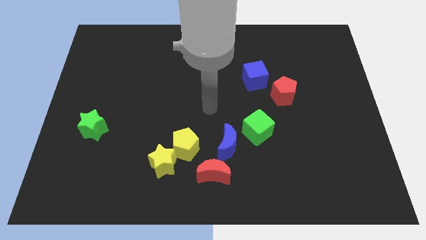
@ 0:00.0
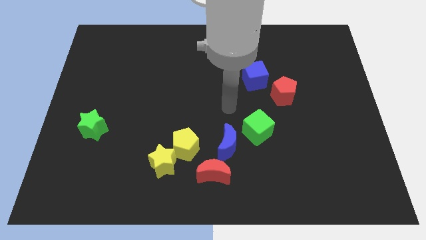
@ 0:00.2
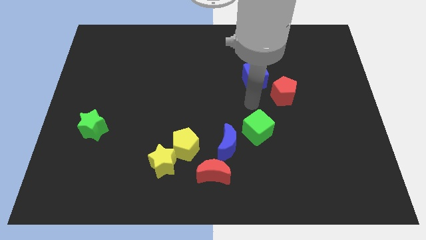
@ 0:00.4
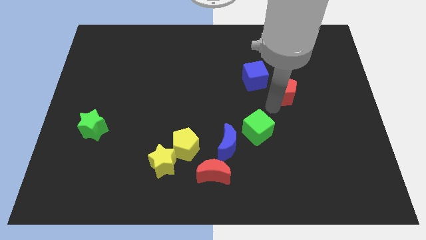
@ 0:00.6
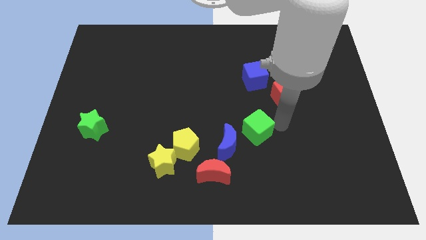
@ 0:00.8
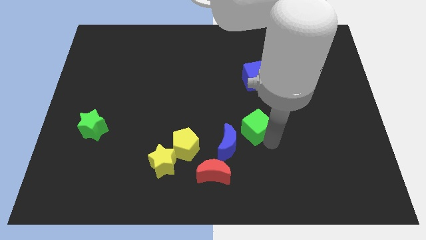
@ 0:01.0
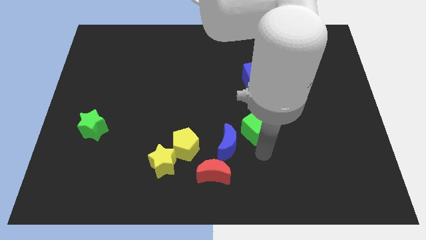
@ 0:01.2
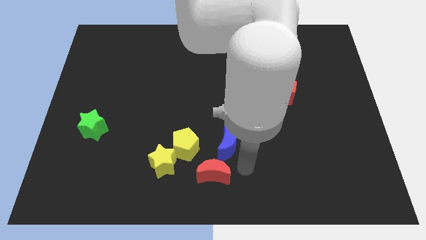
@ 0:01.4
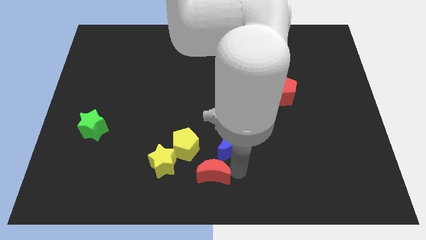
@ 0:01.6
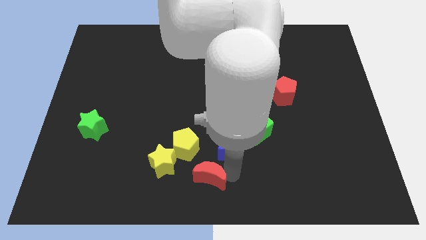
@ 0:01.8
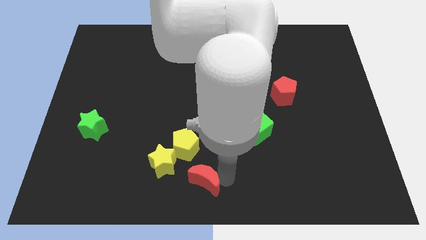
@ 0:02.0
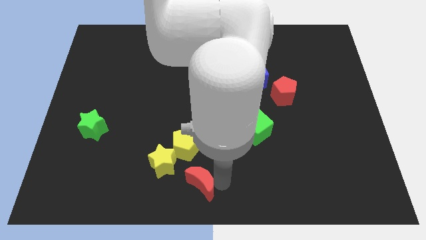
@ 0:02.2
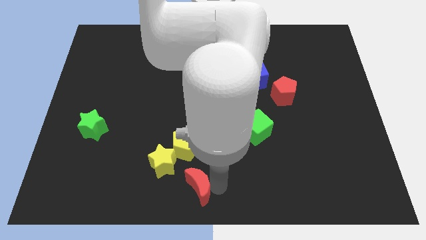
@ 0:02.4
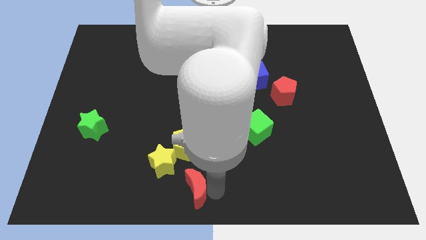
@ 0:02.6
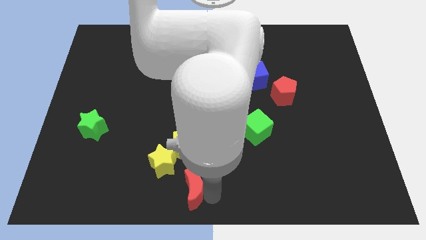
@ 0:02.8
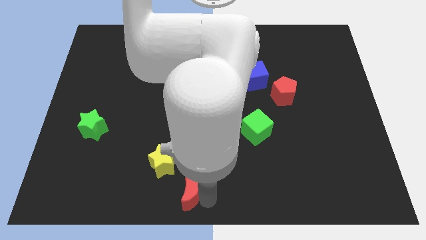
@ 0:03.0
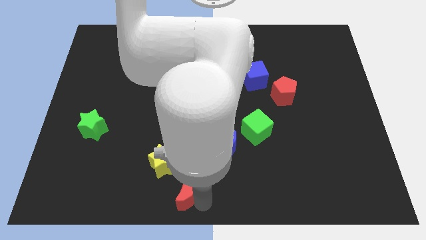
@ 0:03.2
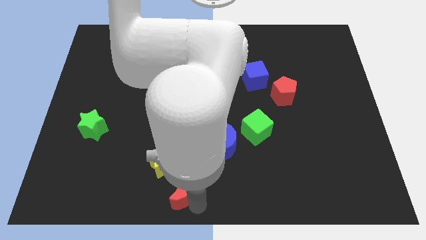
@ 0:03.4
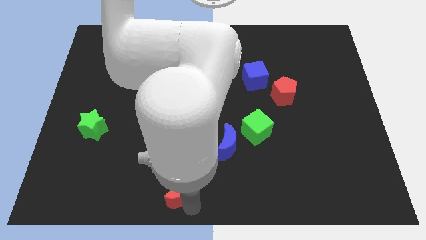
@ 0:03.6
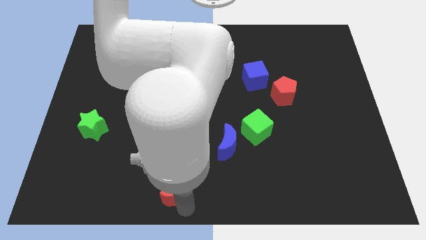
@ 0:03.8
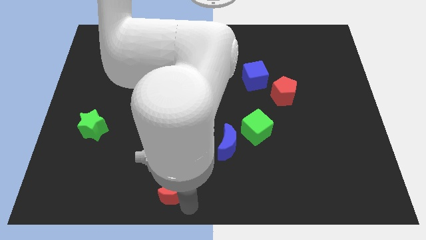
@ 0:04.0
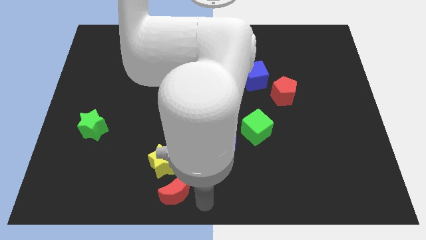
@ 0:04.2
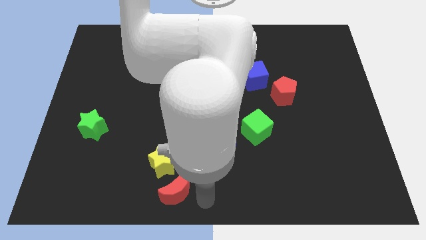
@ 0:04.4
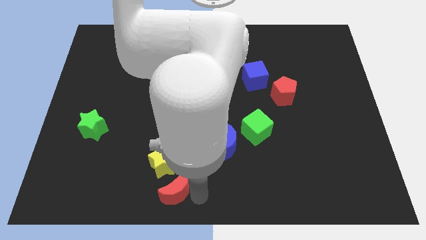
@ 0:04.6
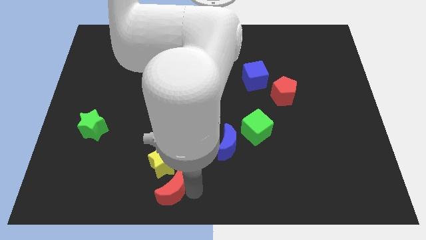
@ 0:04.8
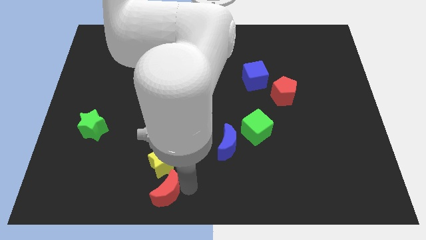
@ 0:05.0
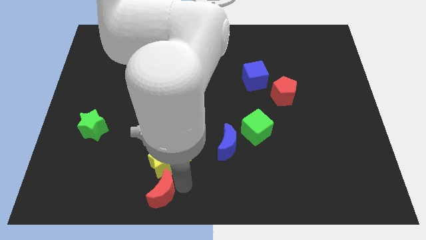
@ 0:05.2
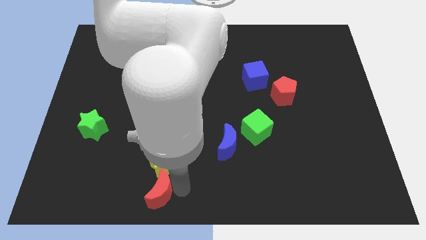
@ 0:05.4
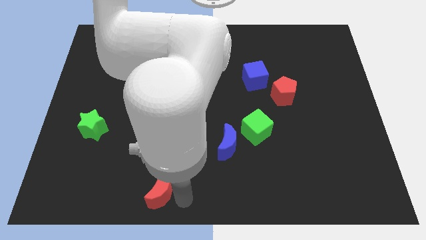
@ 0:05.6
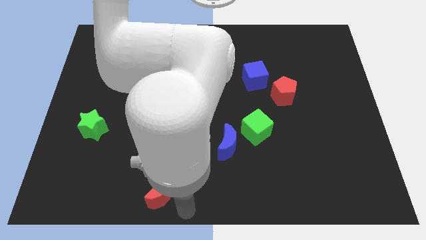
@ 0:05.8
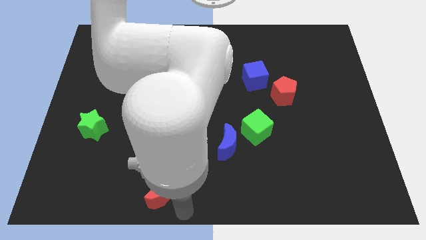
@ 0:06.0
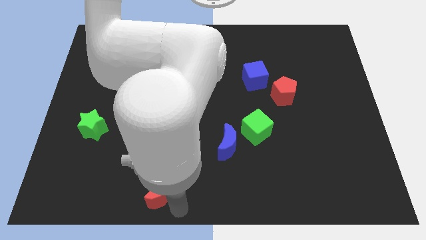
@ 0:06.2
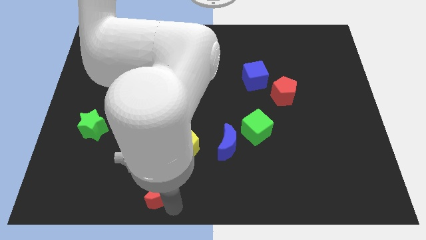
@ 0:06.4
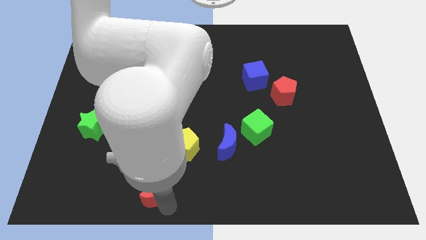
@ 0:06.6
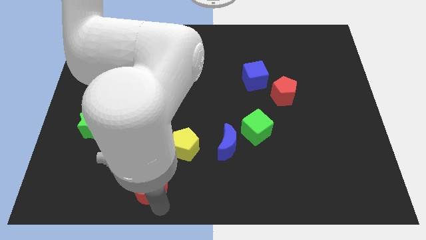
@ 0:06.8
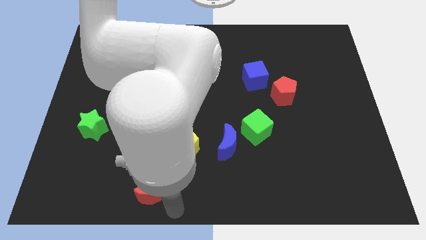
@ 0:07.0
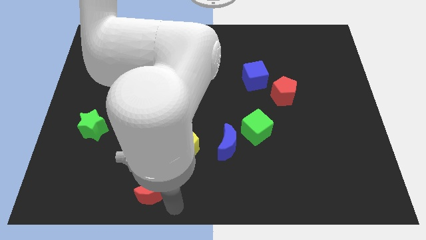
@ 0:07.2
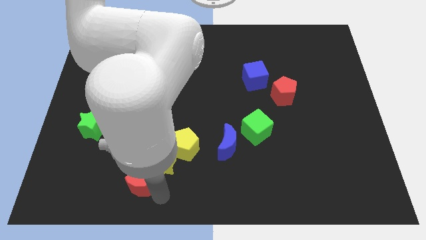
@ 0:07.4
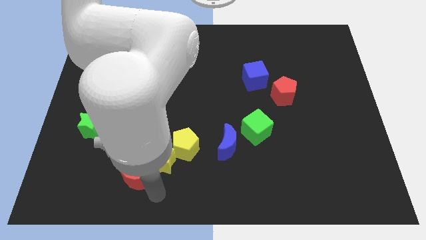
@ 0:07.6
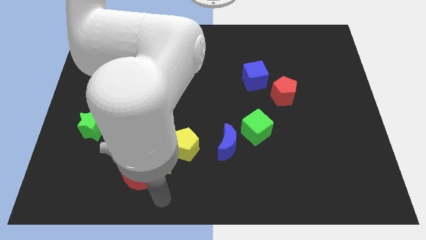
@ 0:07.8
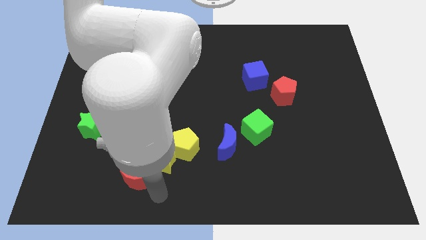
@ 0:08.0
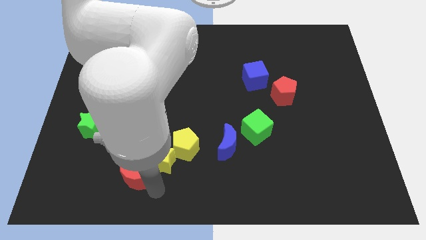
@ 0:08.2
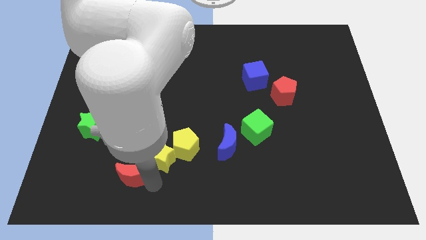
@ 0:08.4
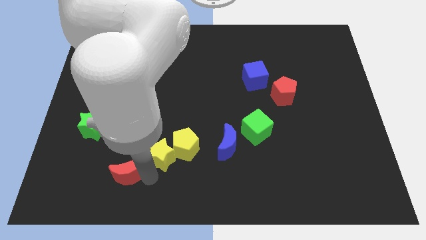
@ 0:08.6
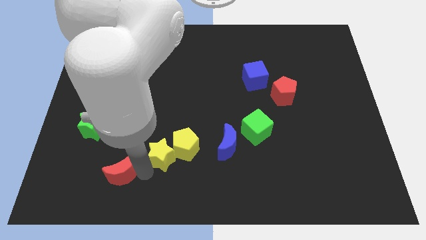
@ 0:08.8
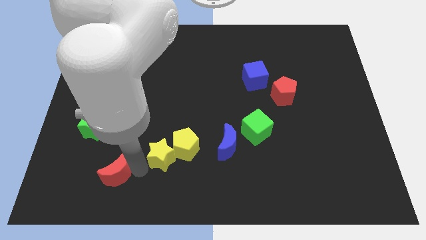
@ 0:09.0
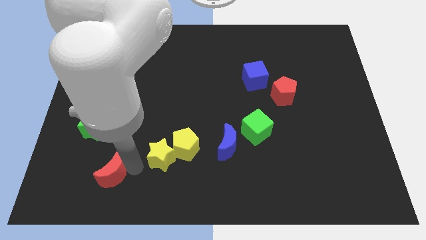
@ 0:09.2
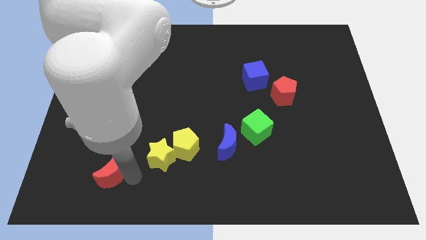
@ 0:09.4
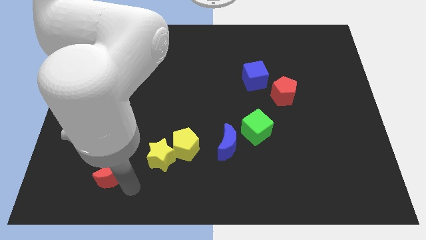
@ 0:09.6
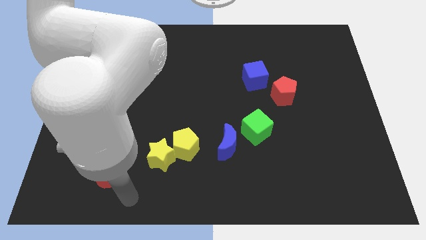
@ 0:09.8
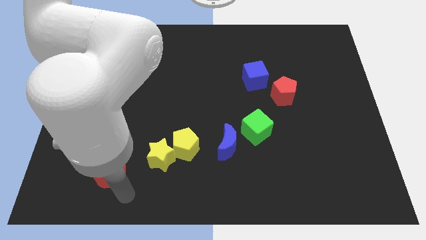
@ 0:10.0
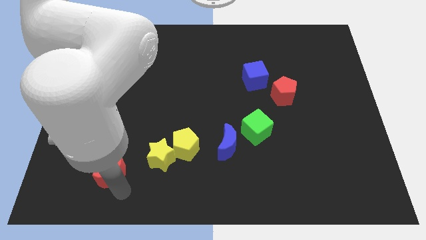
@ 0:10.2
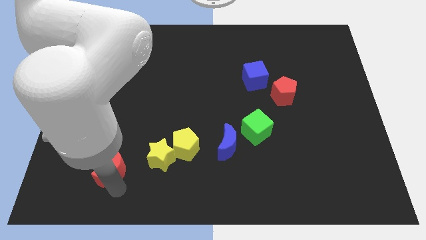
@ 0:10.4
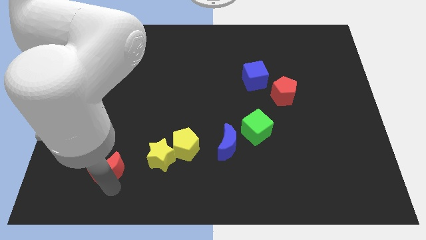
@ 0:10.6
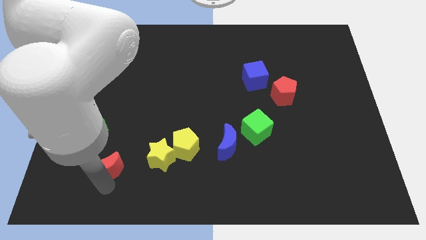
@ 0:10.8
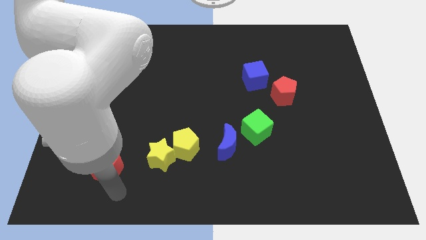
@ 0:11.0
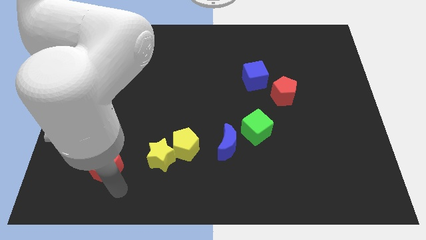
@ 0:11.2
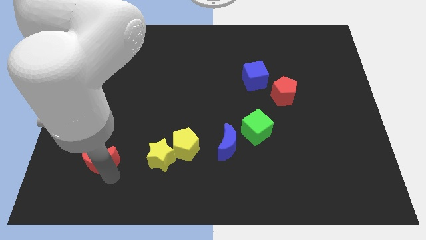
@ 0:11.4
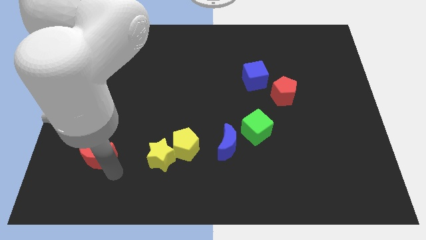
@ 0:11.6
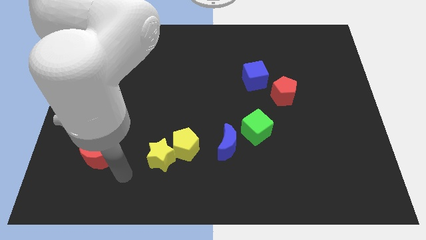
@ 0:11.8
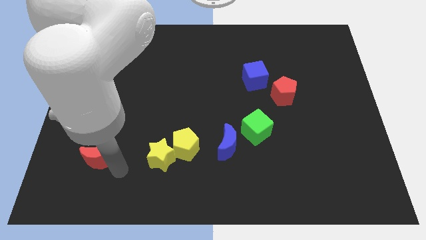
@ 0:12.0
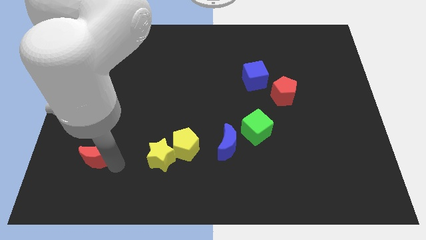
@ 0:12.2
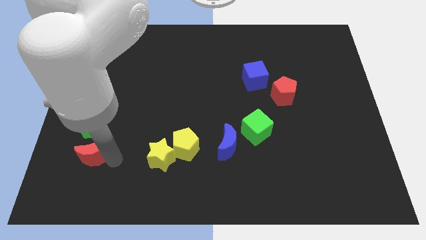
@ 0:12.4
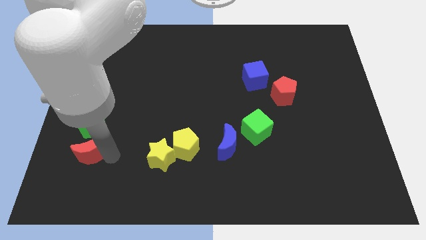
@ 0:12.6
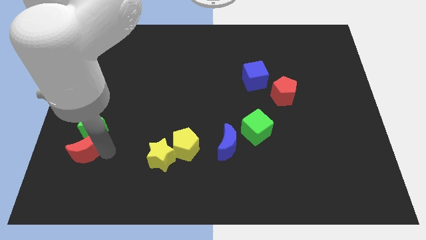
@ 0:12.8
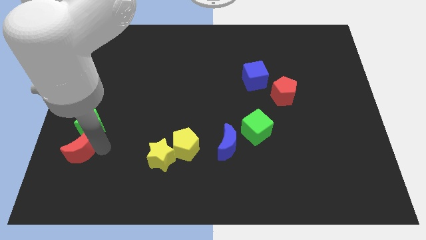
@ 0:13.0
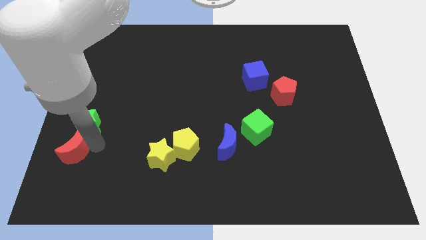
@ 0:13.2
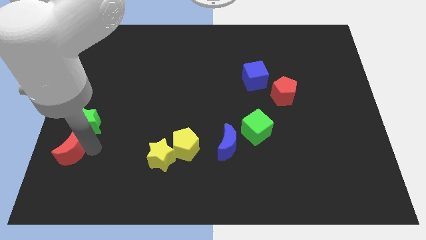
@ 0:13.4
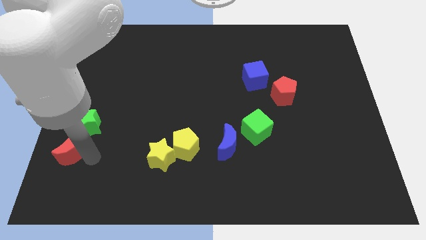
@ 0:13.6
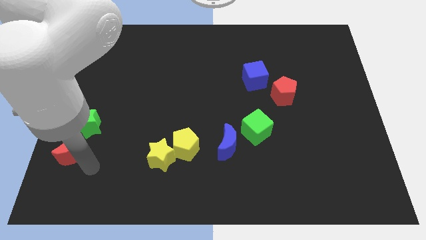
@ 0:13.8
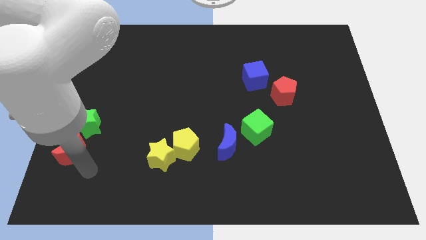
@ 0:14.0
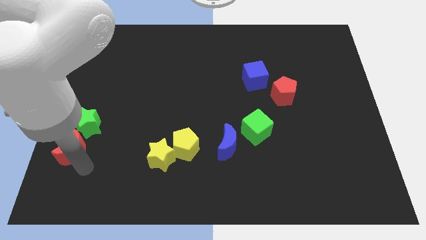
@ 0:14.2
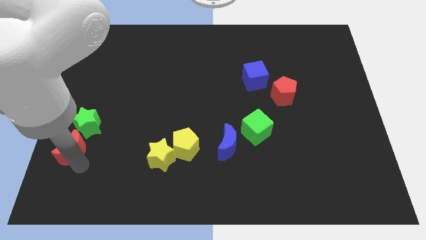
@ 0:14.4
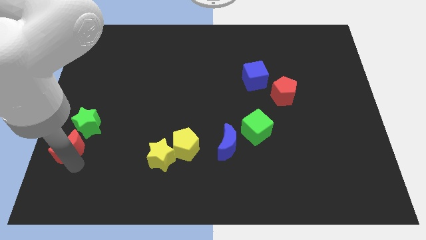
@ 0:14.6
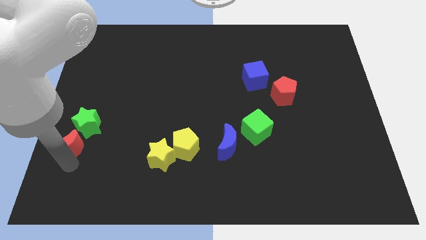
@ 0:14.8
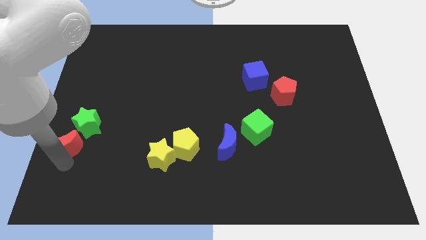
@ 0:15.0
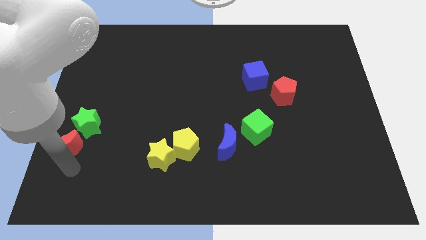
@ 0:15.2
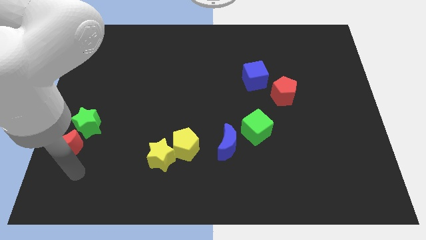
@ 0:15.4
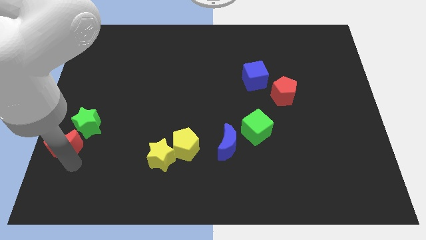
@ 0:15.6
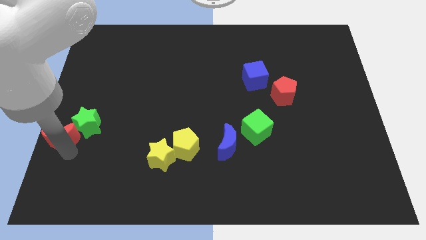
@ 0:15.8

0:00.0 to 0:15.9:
push the red moon to the center left
